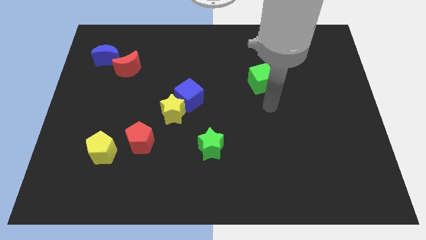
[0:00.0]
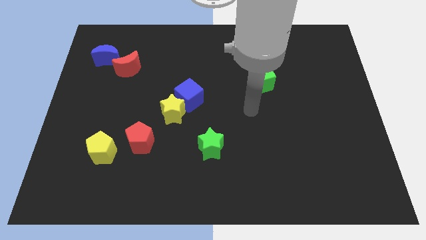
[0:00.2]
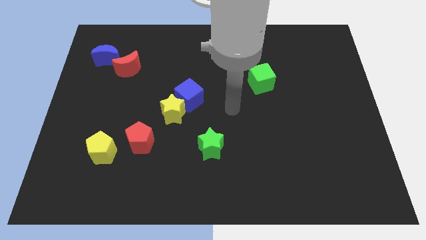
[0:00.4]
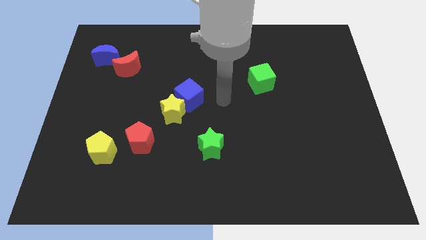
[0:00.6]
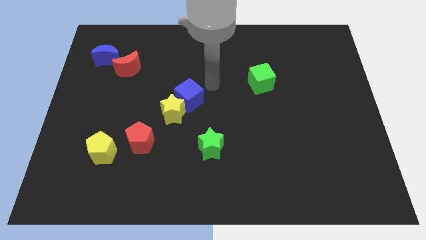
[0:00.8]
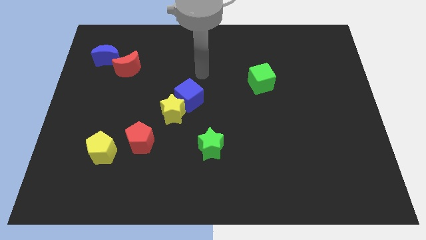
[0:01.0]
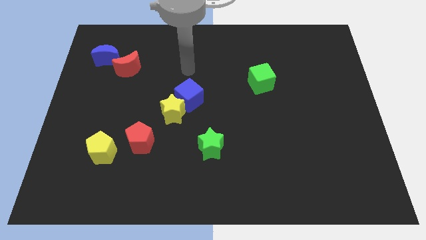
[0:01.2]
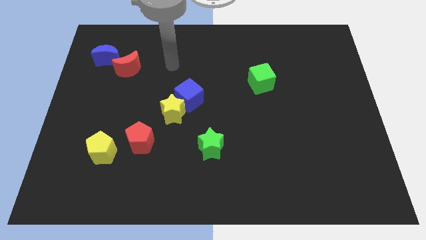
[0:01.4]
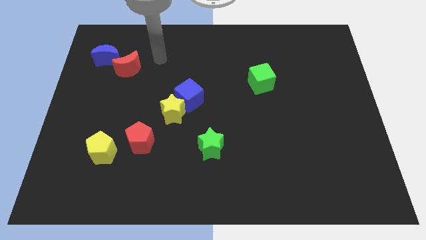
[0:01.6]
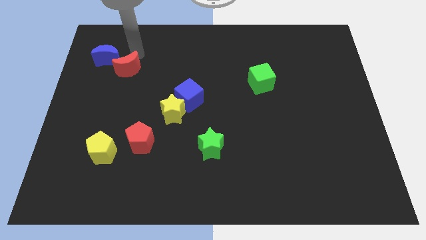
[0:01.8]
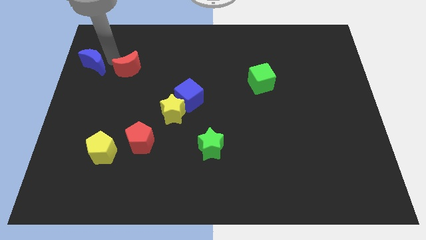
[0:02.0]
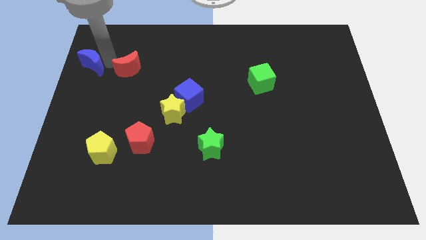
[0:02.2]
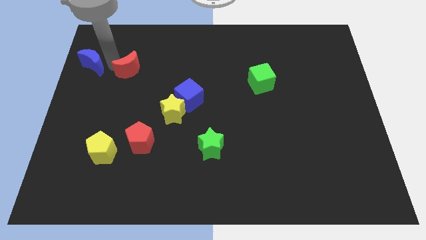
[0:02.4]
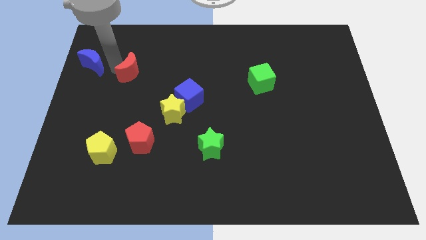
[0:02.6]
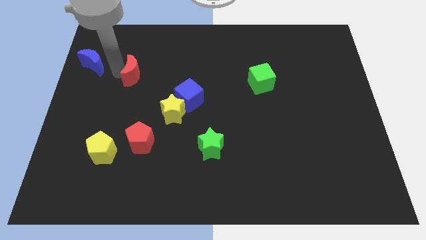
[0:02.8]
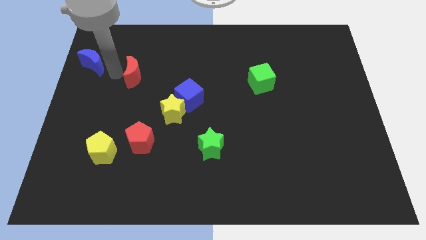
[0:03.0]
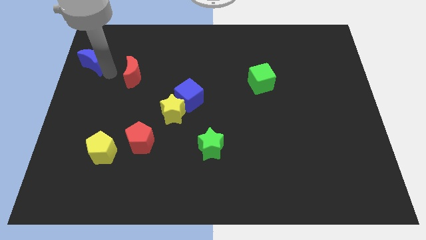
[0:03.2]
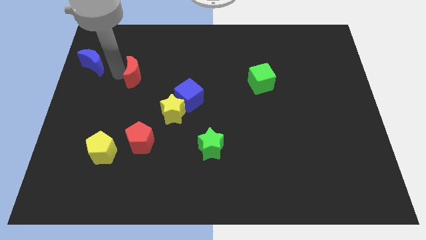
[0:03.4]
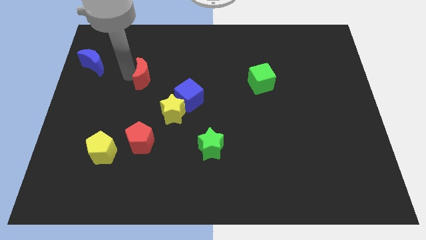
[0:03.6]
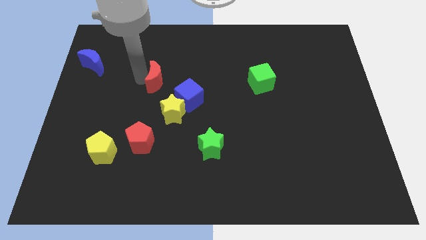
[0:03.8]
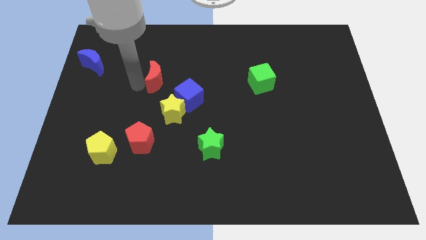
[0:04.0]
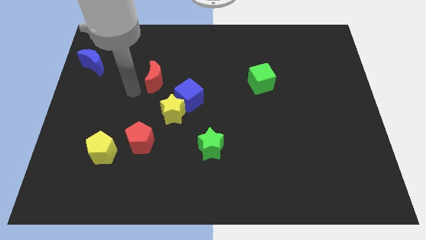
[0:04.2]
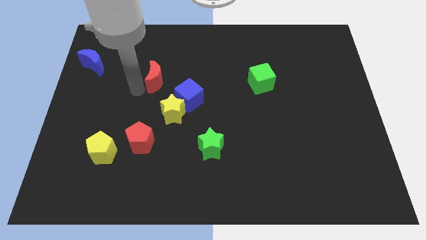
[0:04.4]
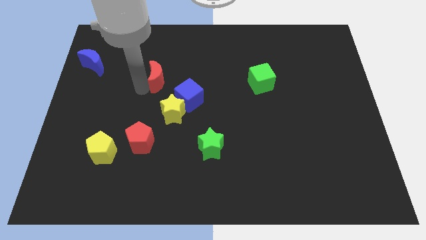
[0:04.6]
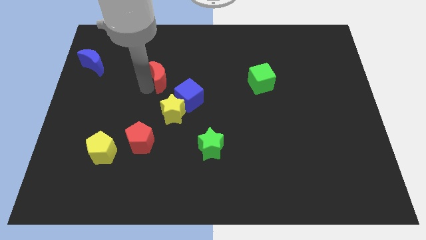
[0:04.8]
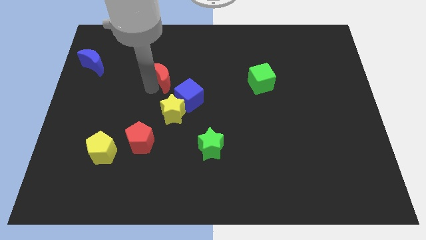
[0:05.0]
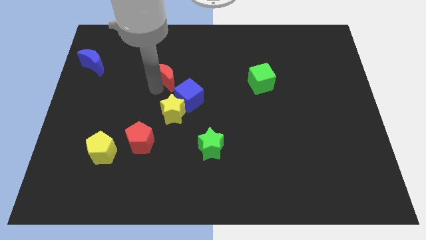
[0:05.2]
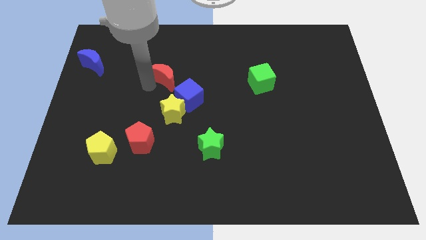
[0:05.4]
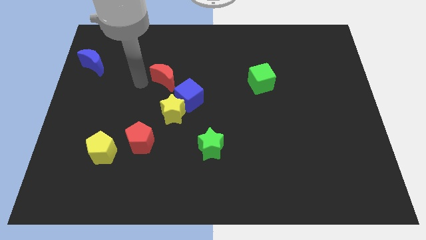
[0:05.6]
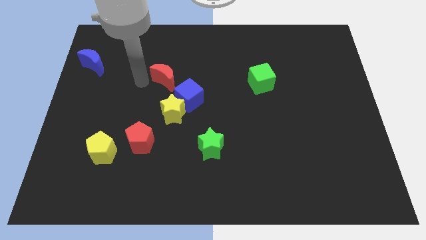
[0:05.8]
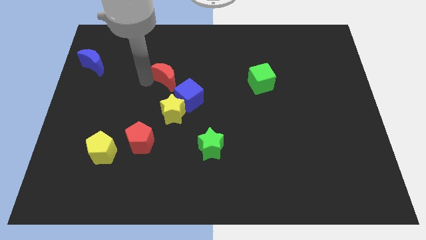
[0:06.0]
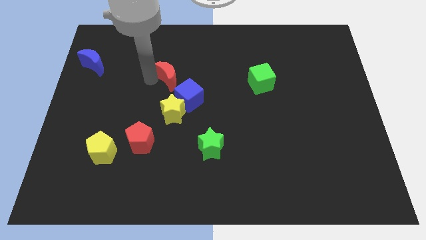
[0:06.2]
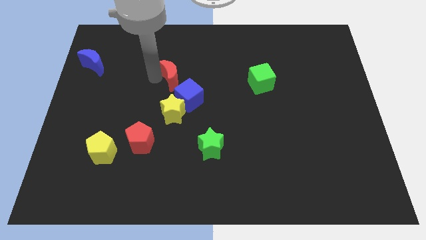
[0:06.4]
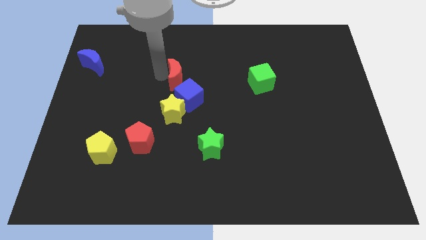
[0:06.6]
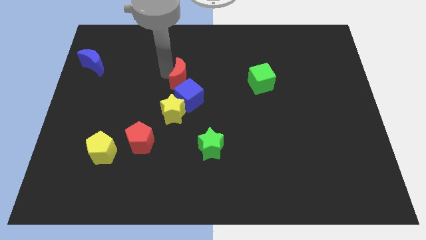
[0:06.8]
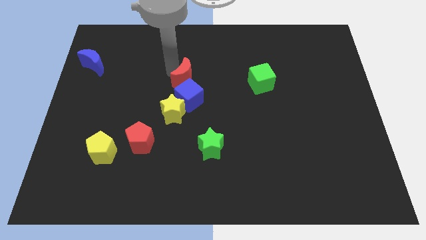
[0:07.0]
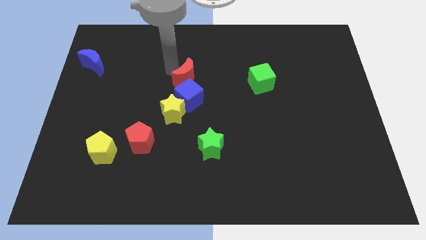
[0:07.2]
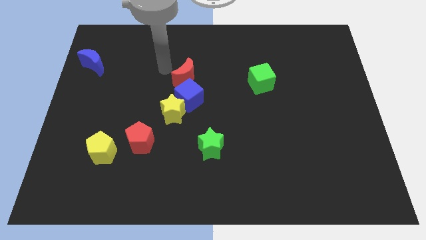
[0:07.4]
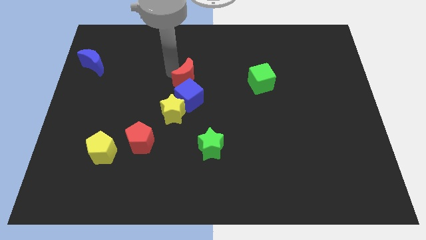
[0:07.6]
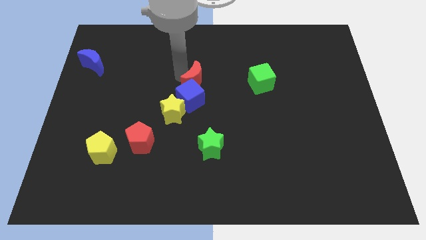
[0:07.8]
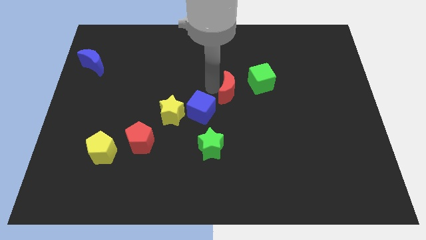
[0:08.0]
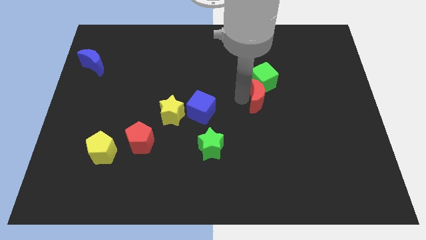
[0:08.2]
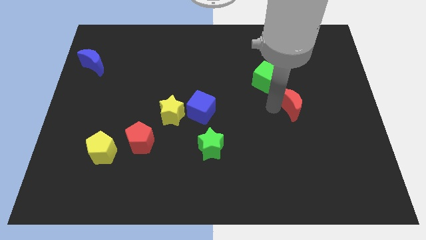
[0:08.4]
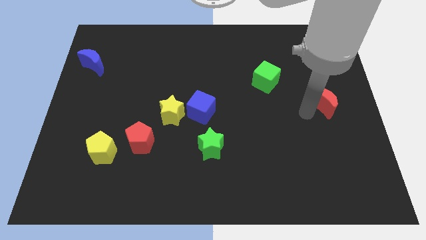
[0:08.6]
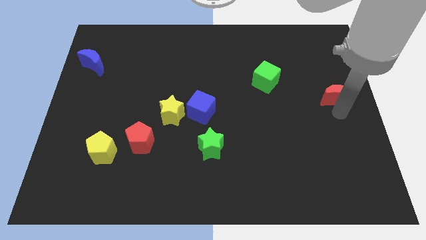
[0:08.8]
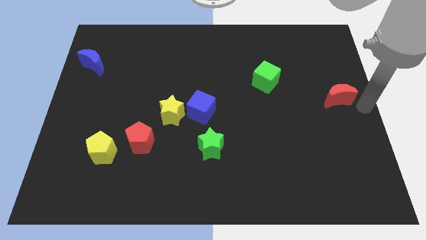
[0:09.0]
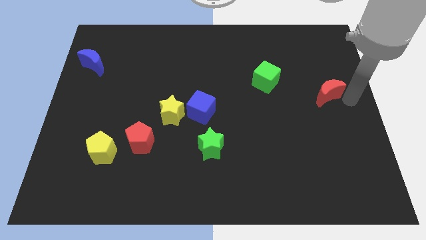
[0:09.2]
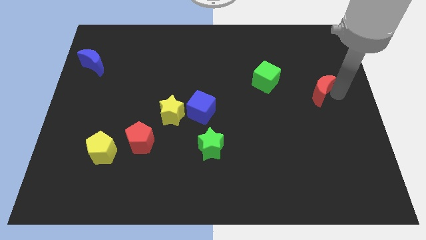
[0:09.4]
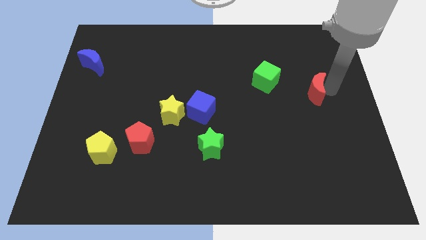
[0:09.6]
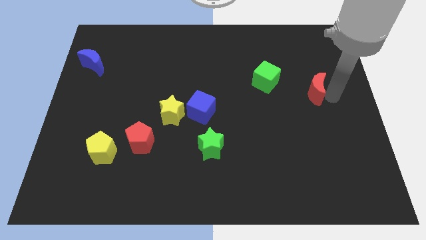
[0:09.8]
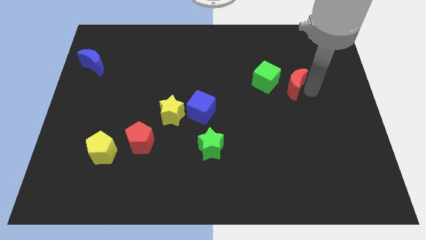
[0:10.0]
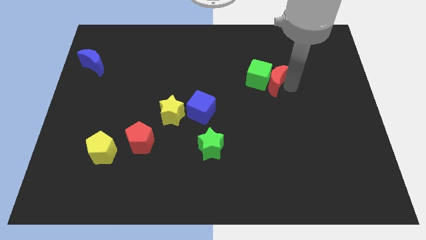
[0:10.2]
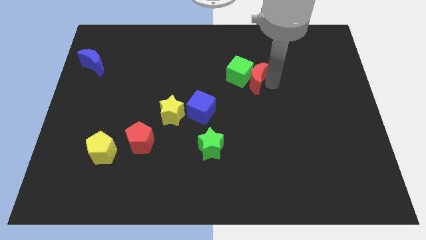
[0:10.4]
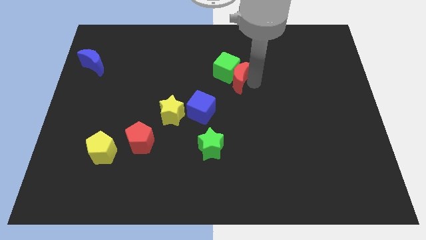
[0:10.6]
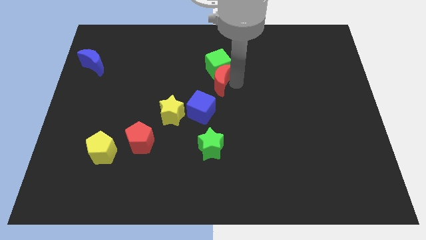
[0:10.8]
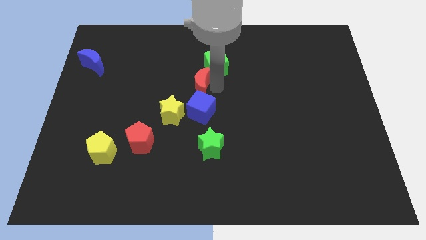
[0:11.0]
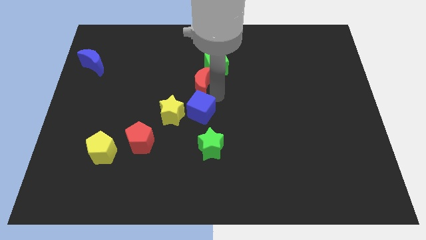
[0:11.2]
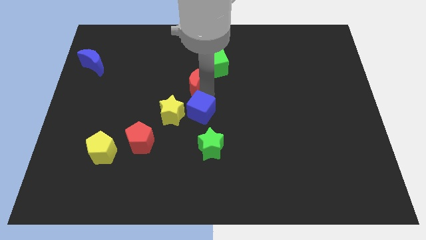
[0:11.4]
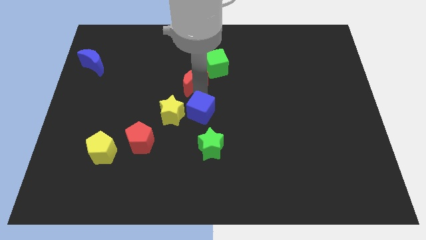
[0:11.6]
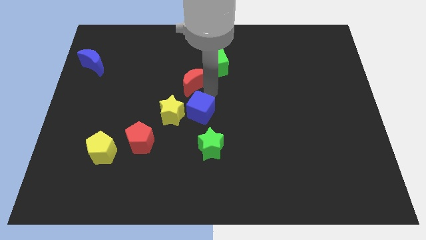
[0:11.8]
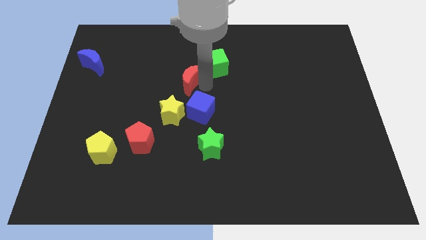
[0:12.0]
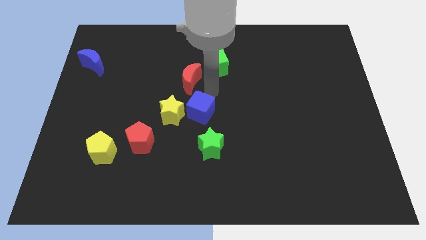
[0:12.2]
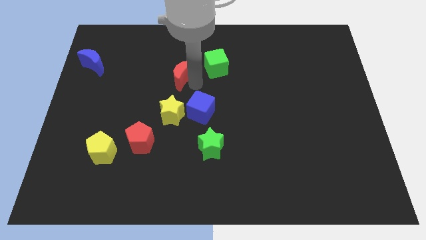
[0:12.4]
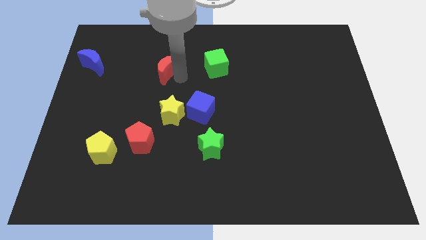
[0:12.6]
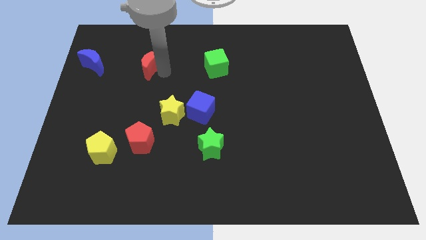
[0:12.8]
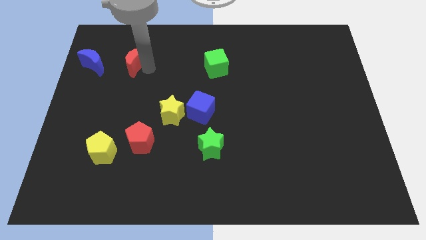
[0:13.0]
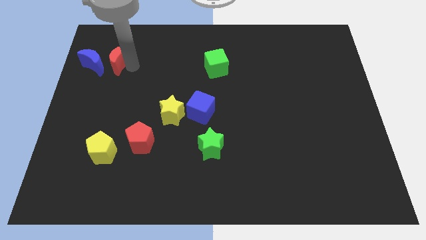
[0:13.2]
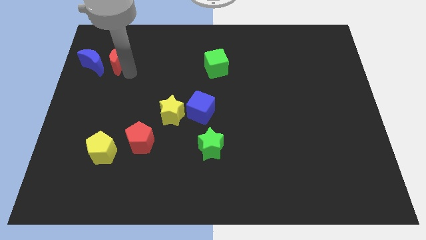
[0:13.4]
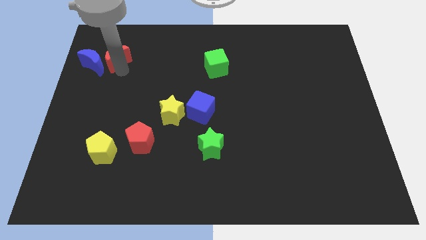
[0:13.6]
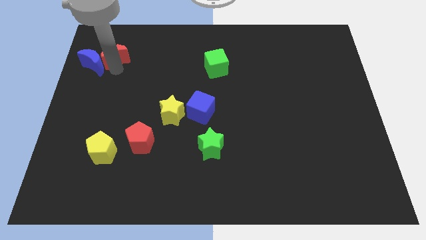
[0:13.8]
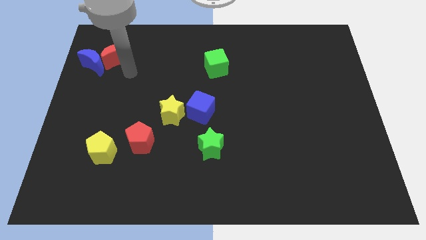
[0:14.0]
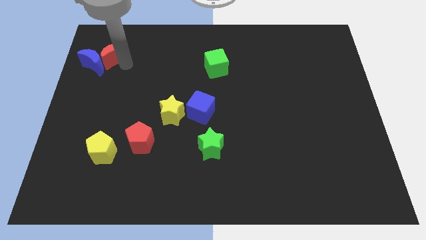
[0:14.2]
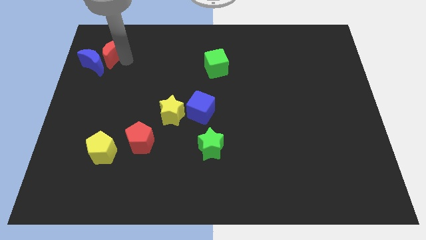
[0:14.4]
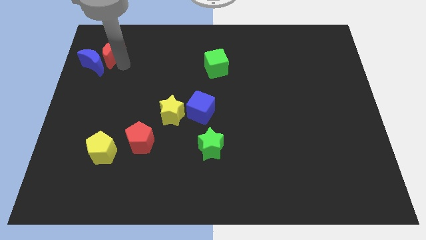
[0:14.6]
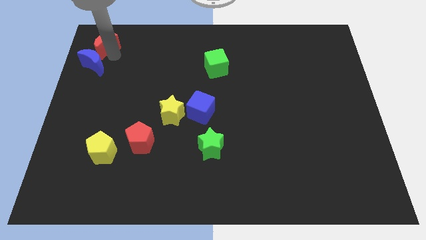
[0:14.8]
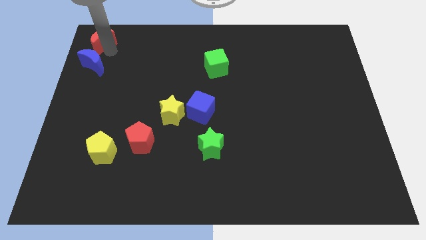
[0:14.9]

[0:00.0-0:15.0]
slide the red moon to the upper left corner

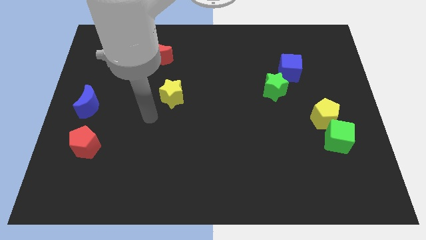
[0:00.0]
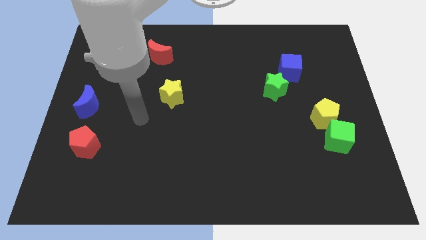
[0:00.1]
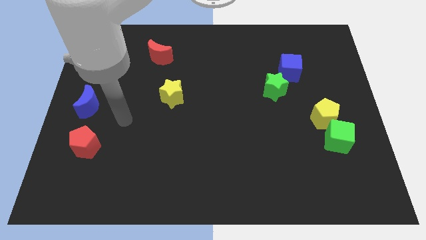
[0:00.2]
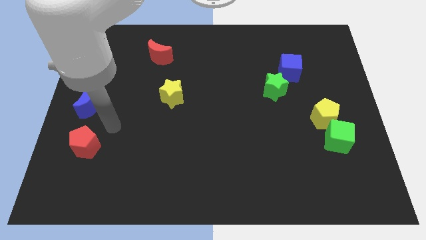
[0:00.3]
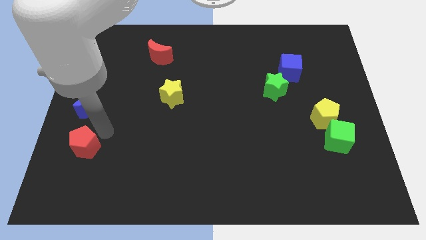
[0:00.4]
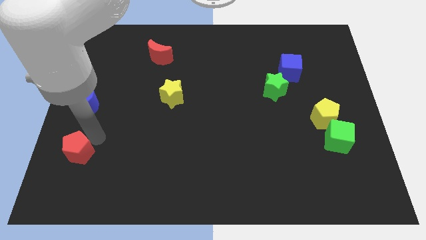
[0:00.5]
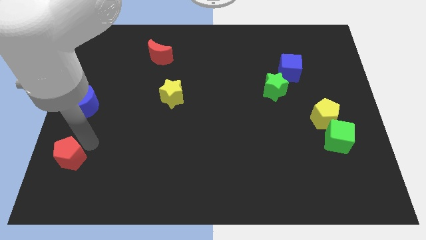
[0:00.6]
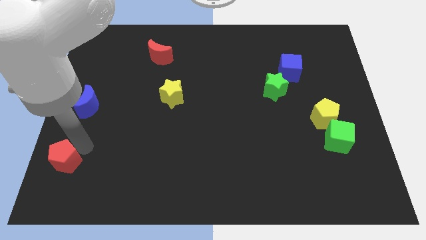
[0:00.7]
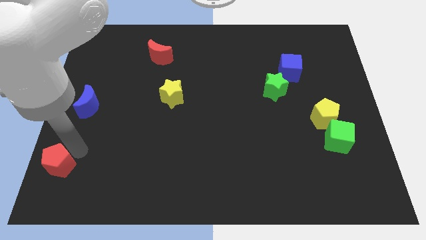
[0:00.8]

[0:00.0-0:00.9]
put the red pentagon to the bottom left corner
